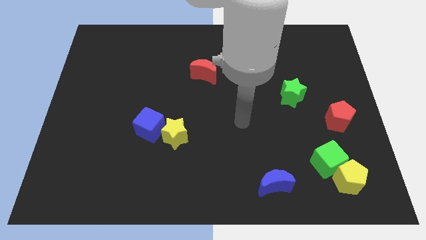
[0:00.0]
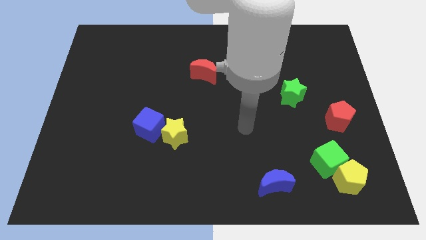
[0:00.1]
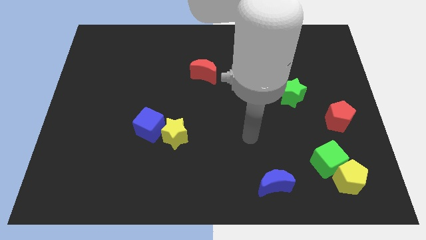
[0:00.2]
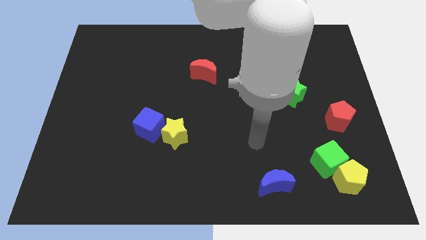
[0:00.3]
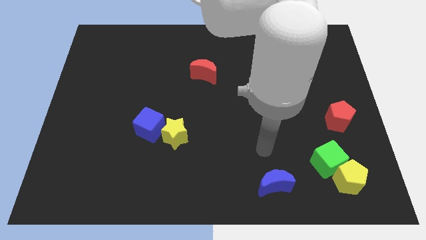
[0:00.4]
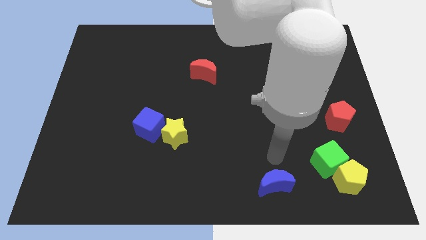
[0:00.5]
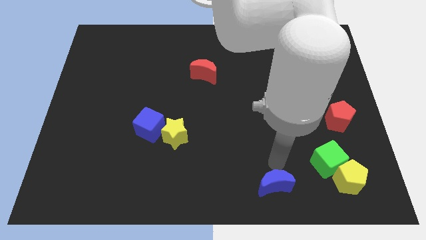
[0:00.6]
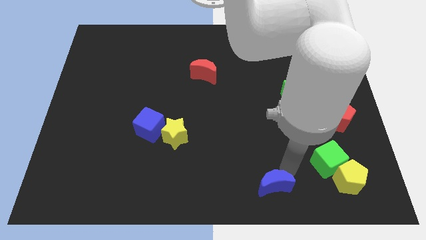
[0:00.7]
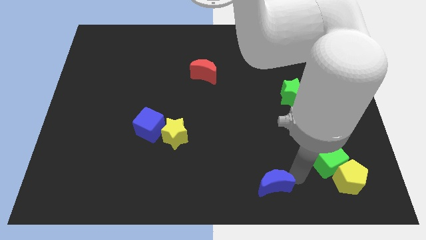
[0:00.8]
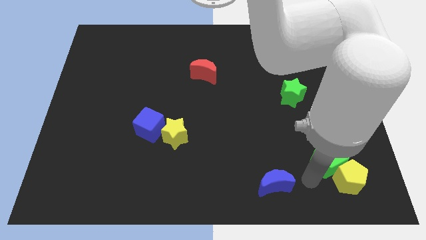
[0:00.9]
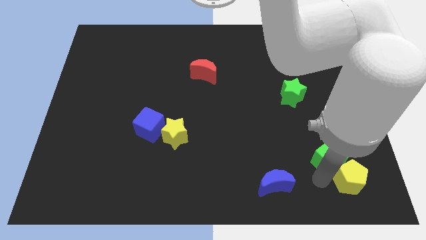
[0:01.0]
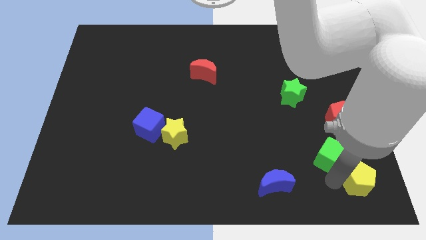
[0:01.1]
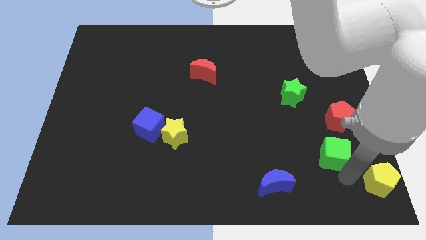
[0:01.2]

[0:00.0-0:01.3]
move the green cube away from the yellow pentagon

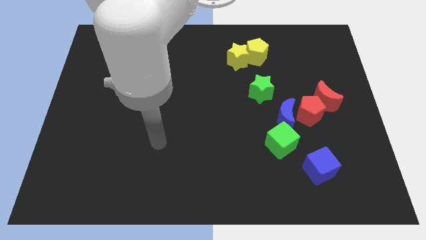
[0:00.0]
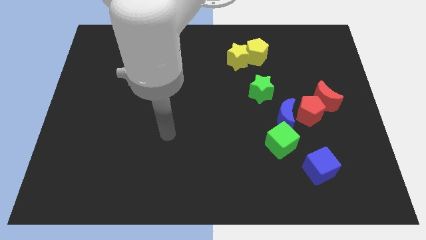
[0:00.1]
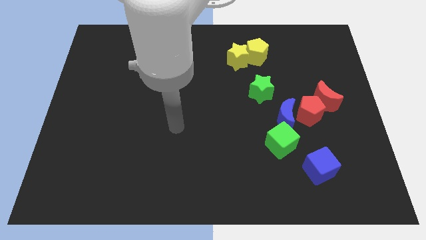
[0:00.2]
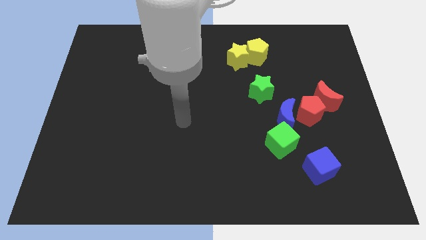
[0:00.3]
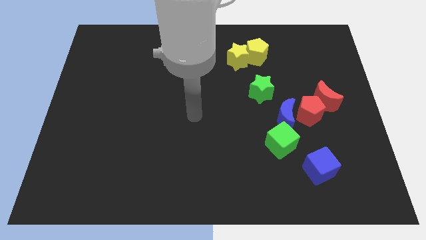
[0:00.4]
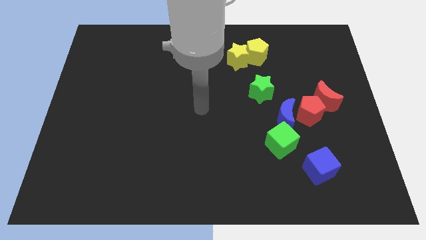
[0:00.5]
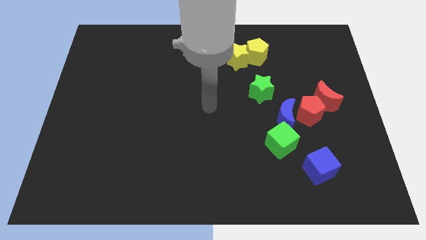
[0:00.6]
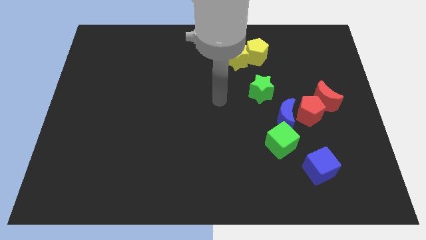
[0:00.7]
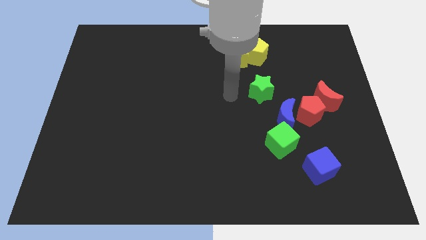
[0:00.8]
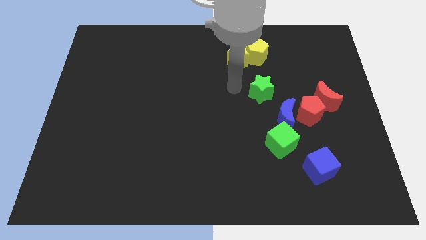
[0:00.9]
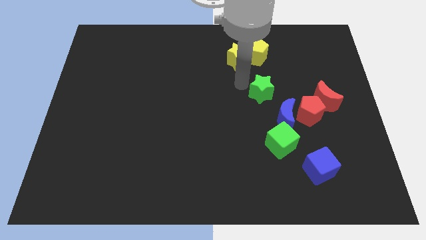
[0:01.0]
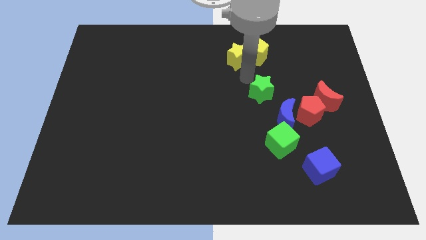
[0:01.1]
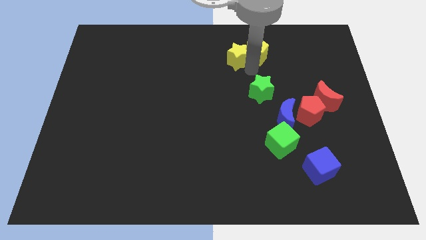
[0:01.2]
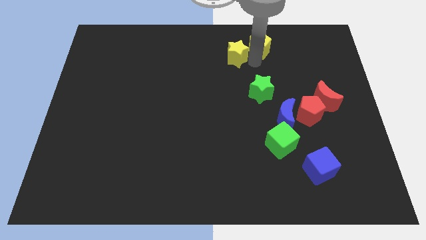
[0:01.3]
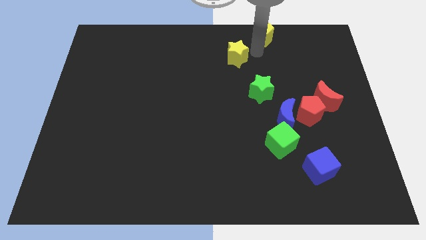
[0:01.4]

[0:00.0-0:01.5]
move the yellow star away from the yellow pentagon

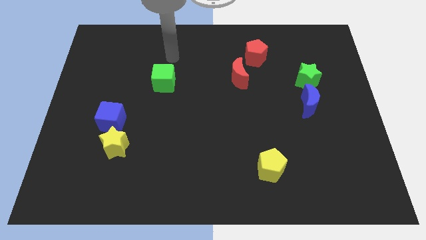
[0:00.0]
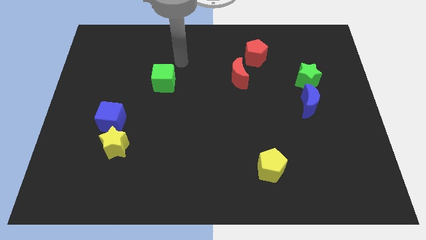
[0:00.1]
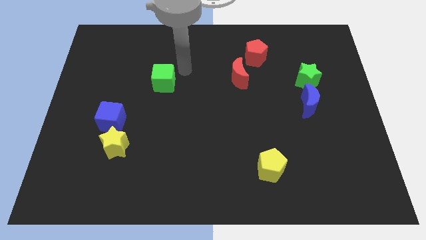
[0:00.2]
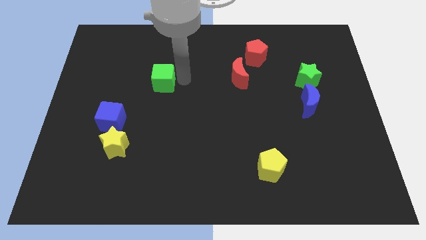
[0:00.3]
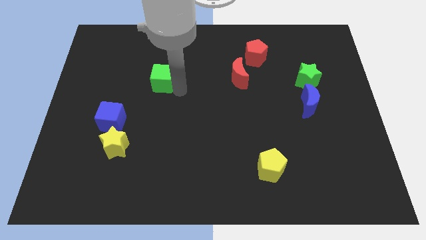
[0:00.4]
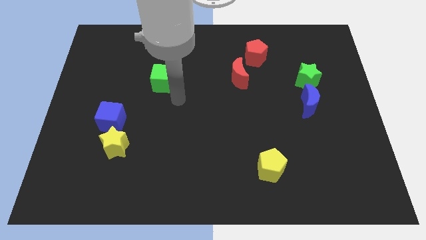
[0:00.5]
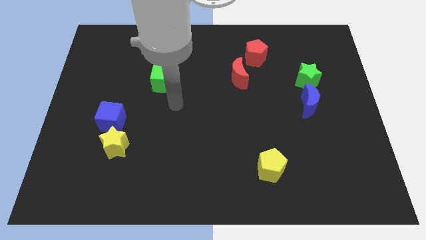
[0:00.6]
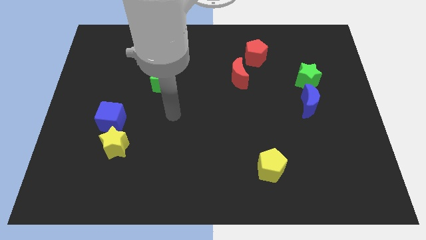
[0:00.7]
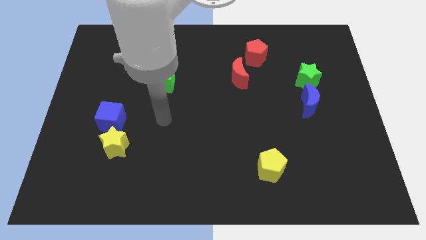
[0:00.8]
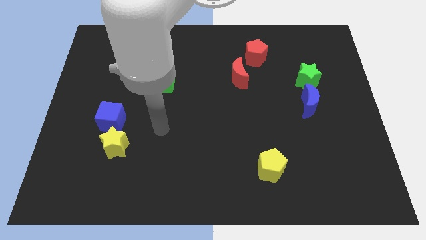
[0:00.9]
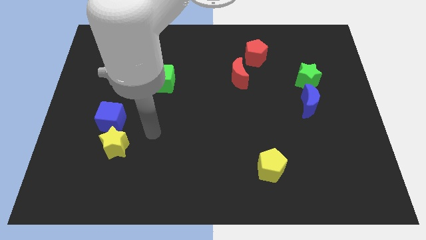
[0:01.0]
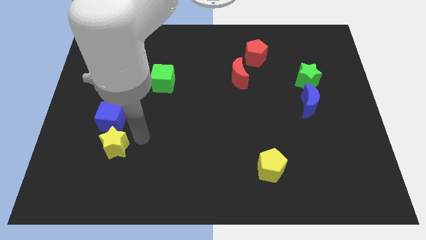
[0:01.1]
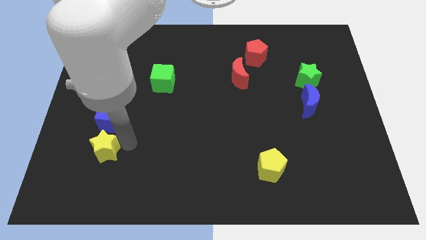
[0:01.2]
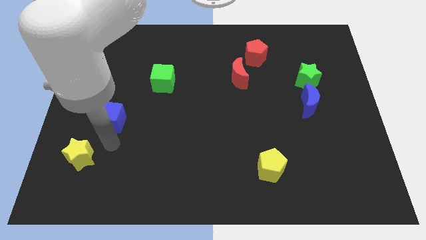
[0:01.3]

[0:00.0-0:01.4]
pull the blue cube apart from the yellow star

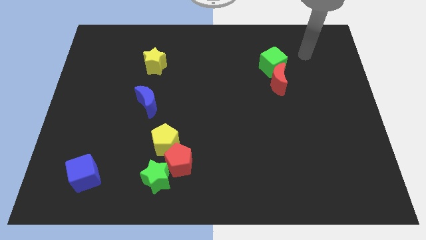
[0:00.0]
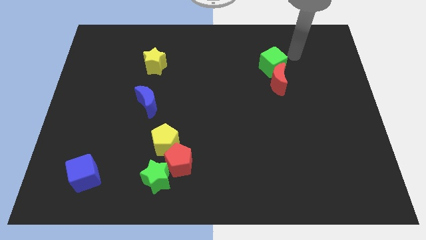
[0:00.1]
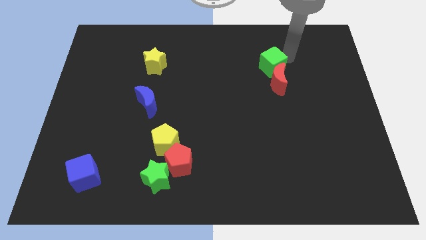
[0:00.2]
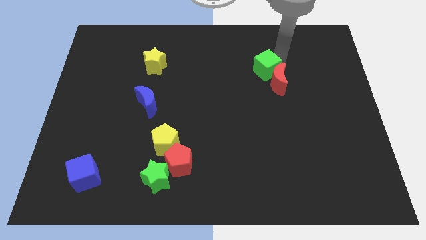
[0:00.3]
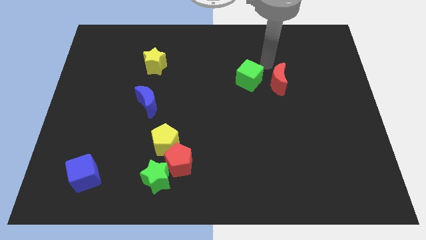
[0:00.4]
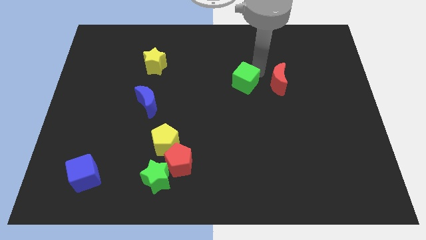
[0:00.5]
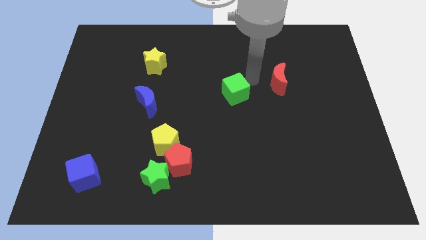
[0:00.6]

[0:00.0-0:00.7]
pull the red moon apart from the green cube

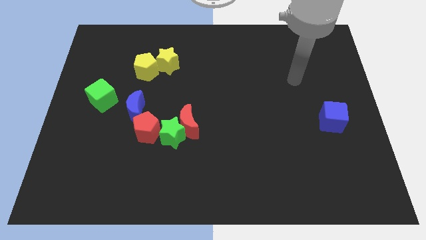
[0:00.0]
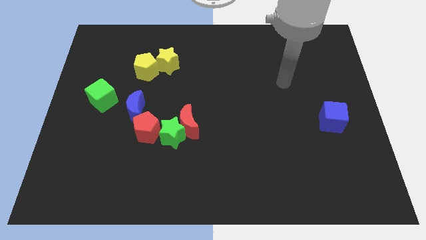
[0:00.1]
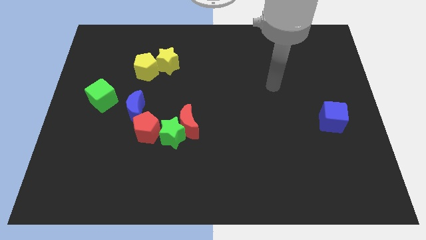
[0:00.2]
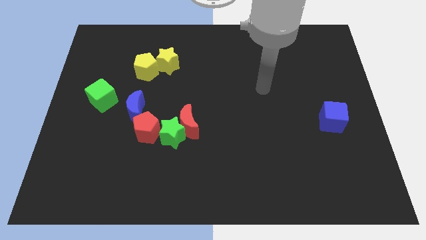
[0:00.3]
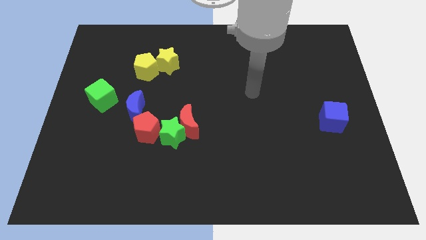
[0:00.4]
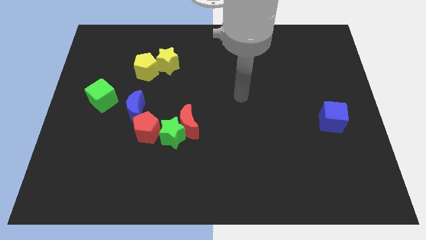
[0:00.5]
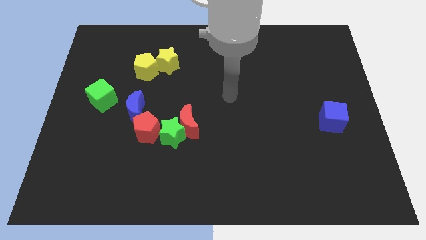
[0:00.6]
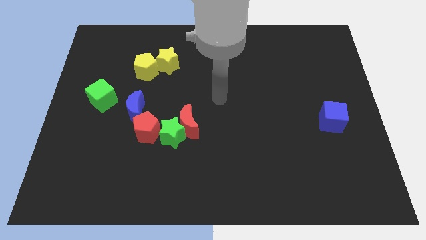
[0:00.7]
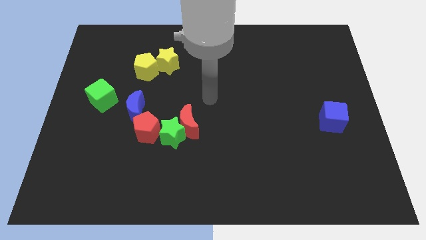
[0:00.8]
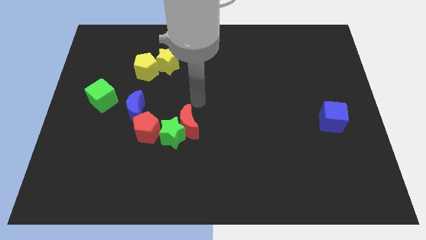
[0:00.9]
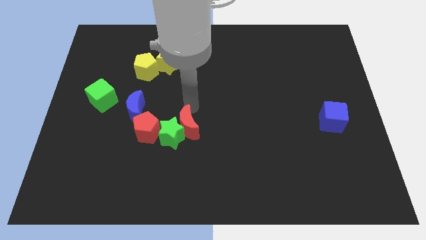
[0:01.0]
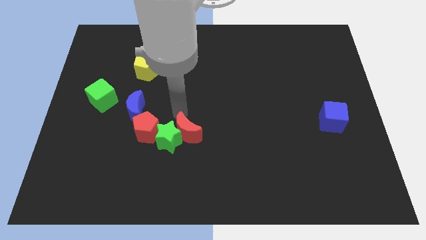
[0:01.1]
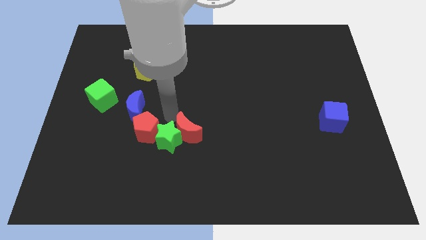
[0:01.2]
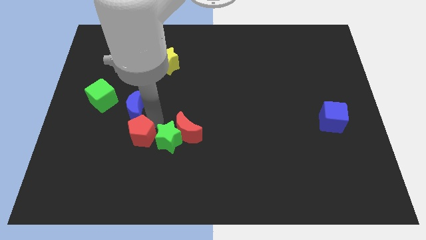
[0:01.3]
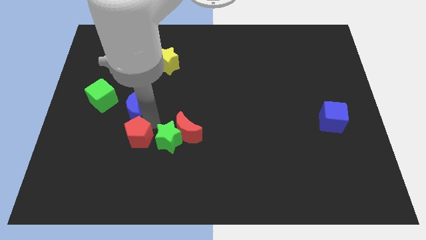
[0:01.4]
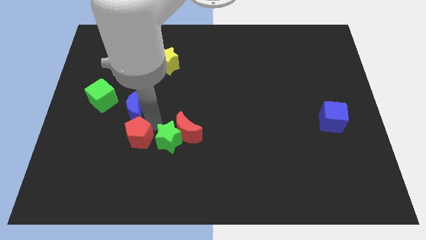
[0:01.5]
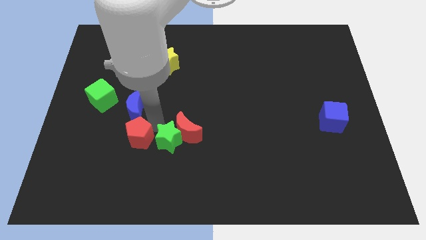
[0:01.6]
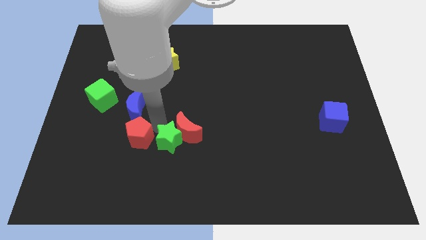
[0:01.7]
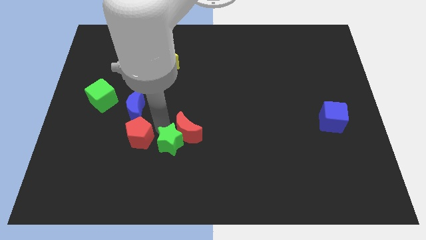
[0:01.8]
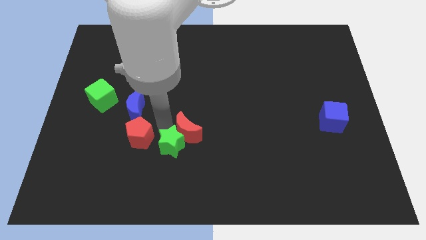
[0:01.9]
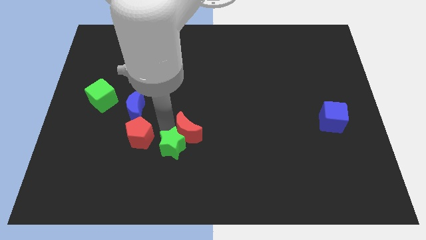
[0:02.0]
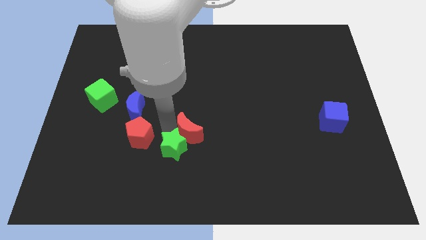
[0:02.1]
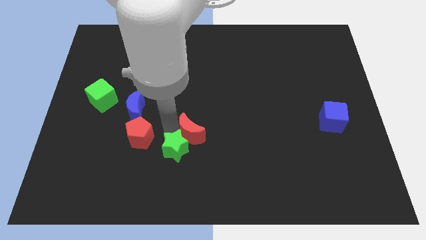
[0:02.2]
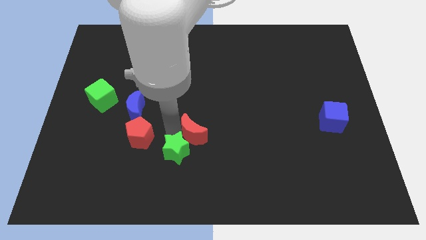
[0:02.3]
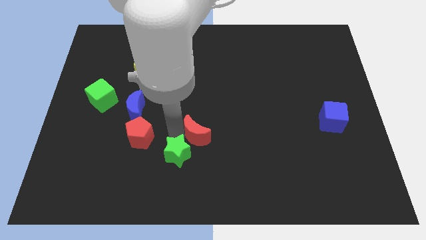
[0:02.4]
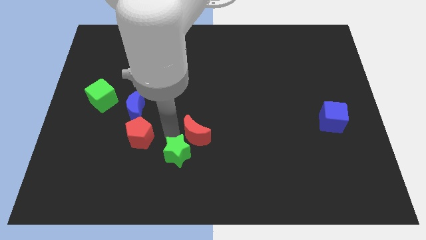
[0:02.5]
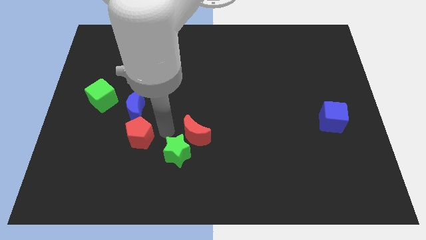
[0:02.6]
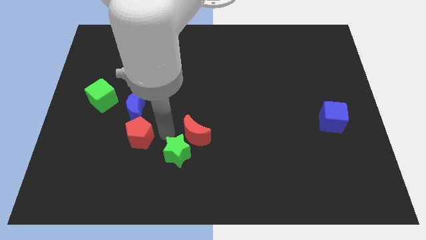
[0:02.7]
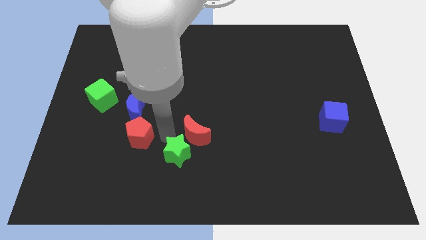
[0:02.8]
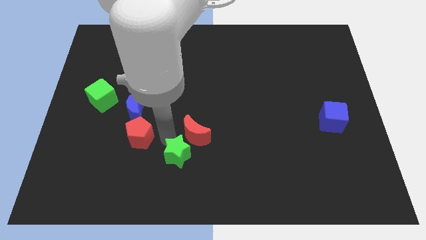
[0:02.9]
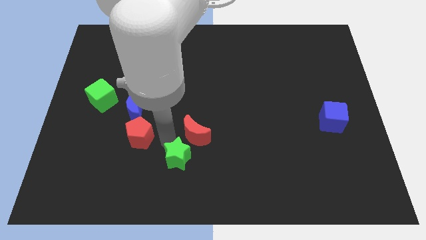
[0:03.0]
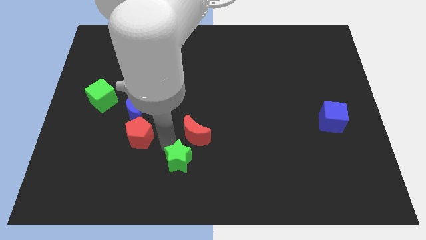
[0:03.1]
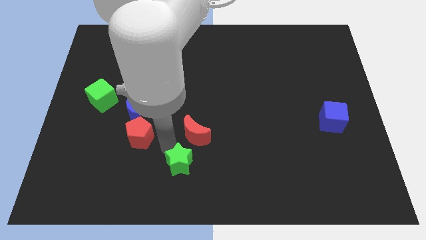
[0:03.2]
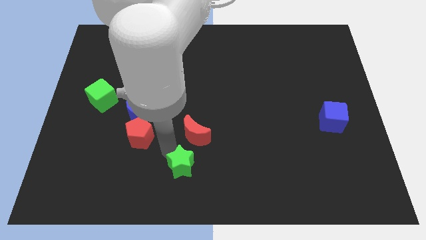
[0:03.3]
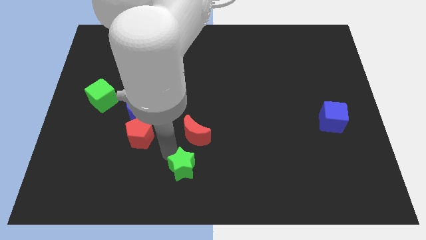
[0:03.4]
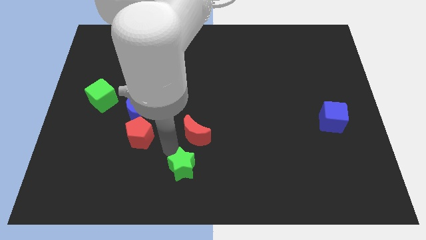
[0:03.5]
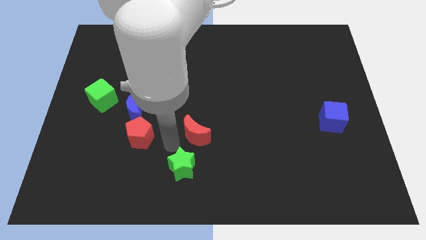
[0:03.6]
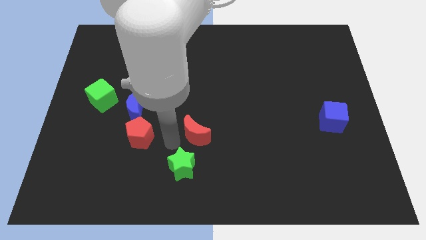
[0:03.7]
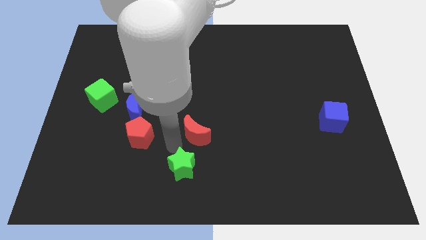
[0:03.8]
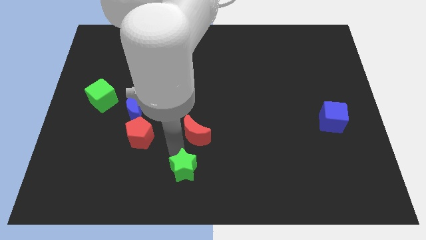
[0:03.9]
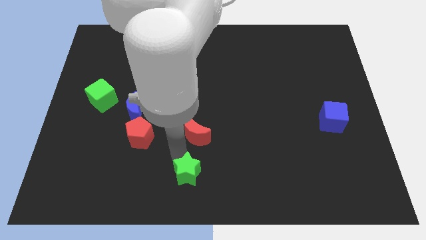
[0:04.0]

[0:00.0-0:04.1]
move the green star away from the red moon and red pentagon

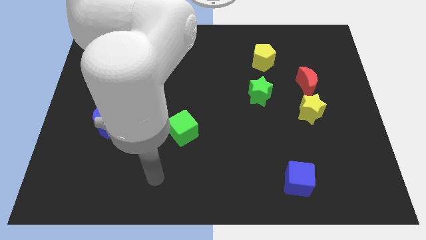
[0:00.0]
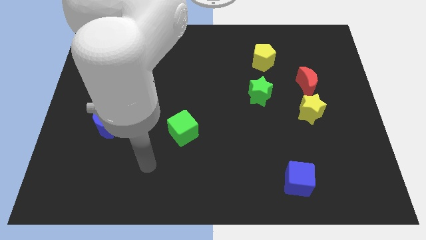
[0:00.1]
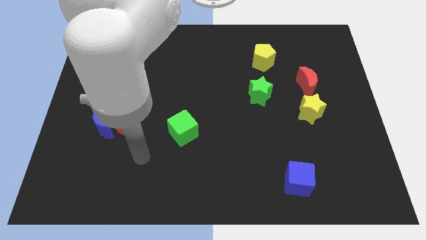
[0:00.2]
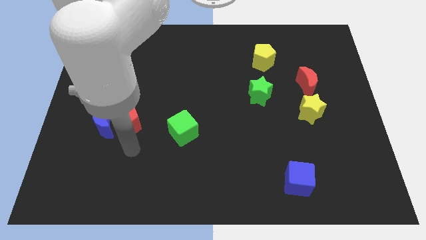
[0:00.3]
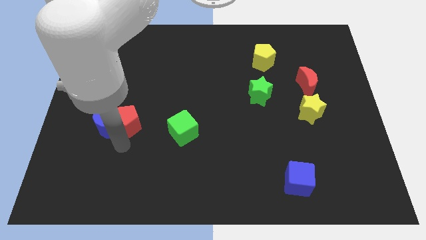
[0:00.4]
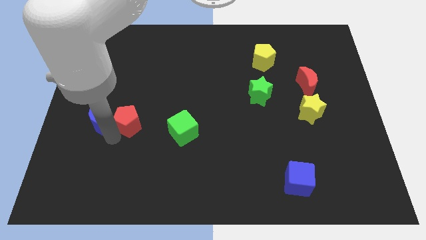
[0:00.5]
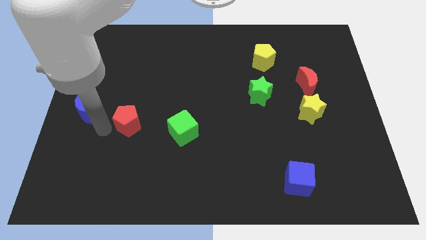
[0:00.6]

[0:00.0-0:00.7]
move the red pentagon away from the blue moon
